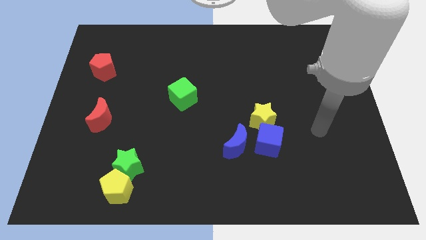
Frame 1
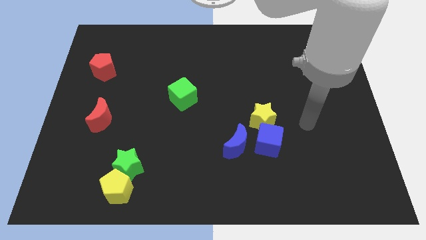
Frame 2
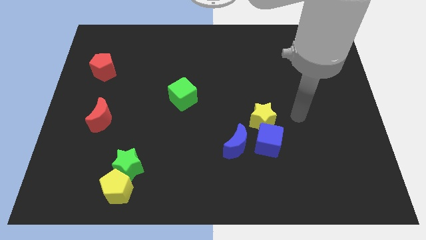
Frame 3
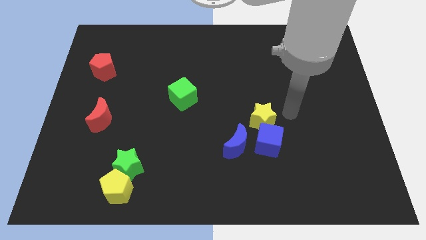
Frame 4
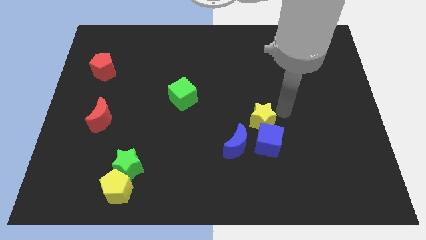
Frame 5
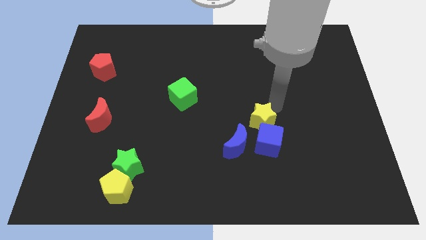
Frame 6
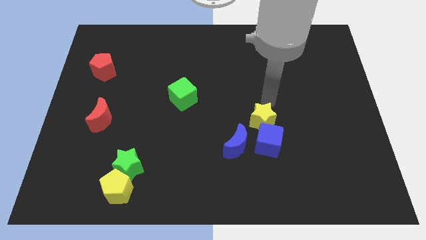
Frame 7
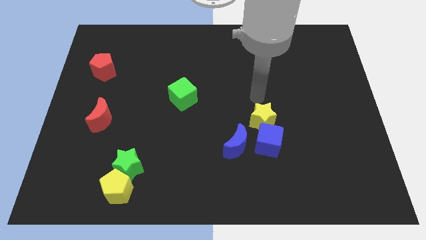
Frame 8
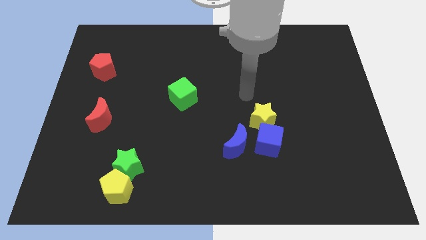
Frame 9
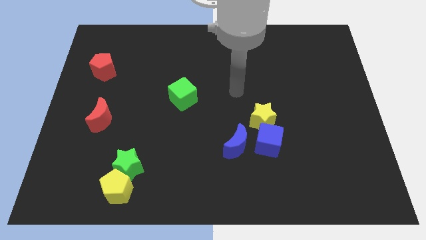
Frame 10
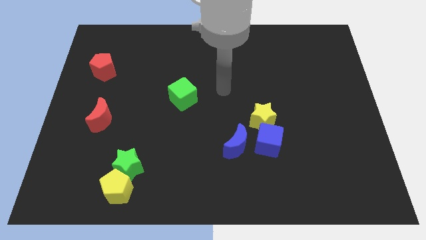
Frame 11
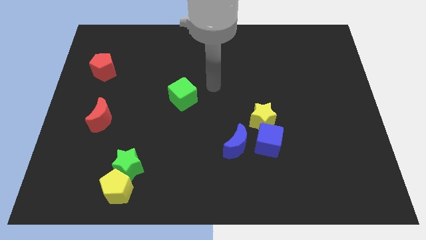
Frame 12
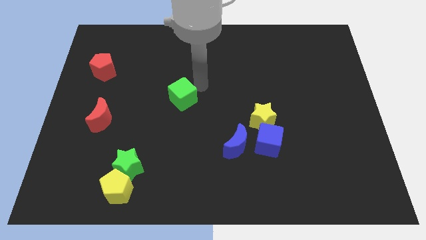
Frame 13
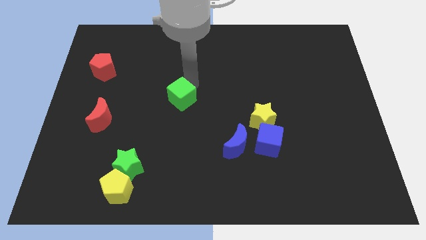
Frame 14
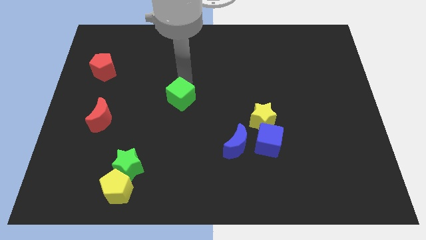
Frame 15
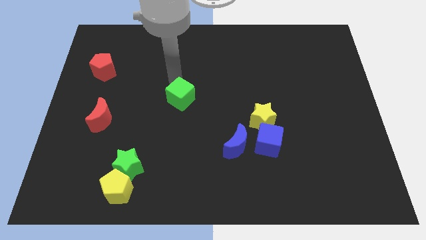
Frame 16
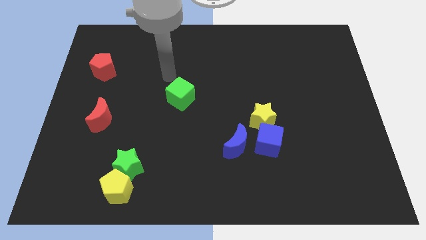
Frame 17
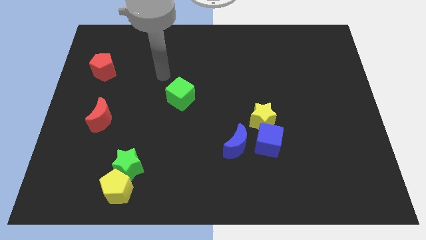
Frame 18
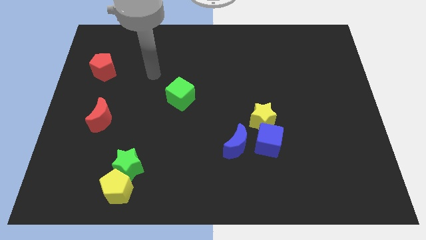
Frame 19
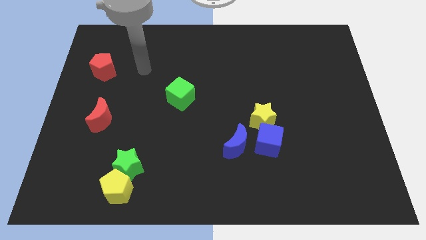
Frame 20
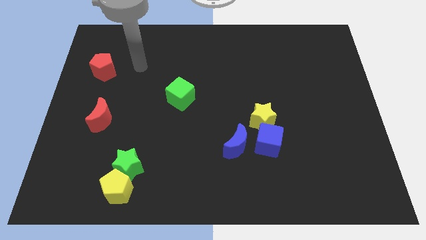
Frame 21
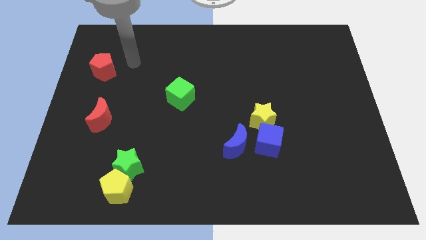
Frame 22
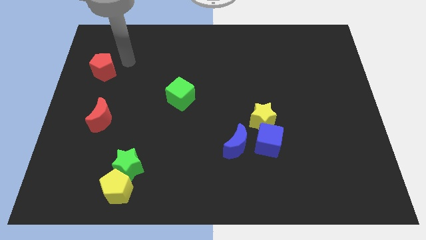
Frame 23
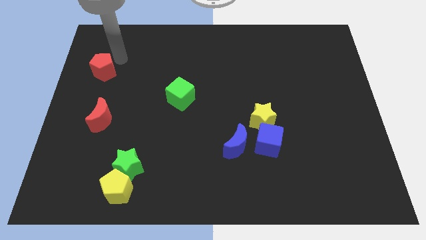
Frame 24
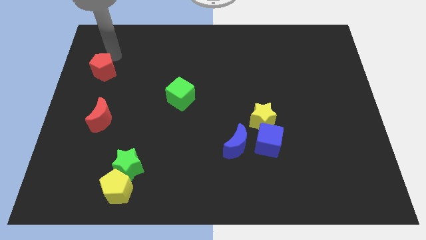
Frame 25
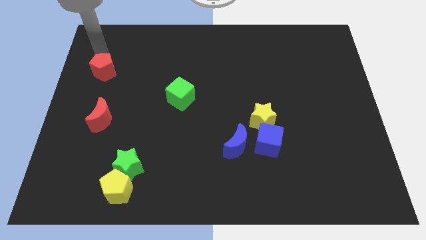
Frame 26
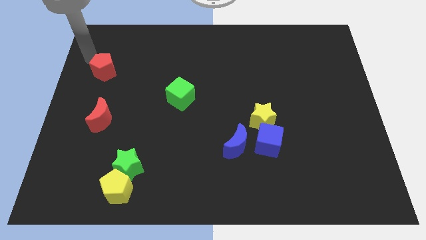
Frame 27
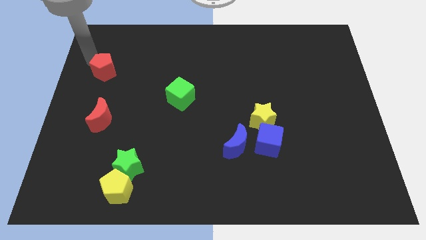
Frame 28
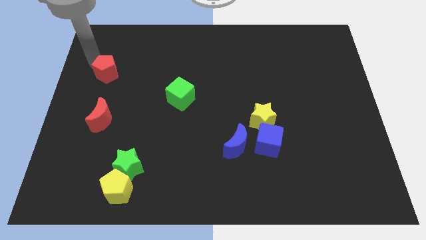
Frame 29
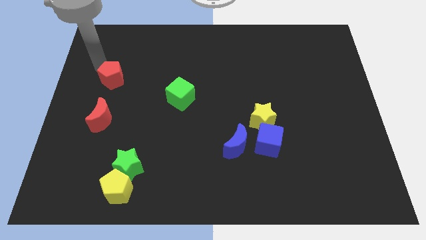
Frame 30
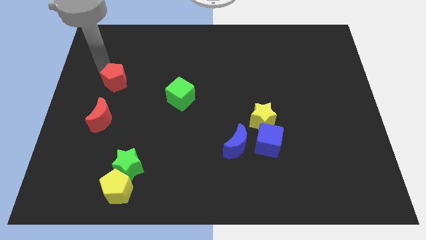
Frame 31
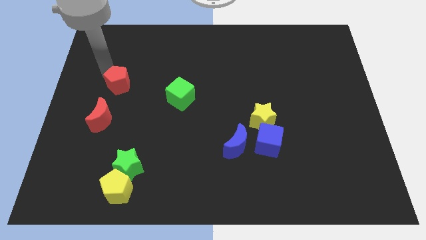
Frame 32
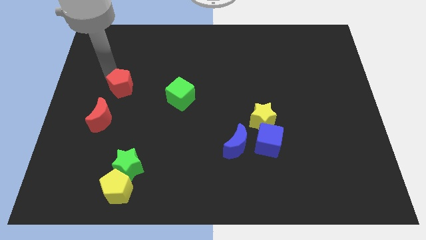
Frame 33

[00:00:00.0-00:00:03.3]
slightly push the red pentagon down and to the right diagonally

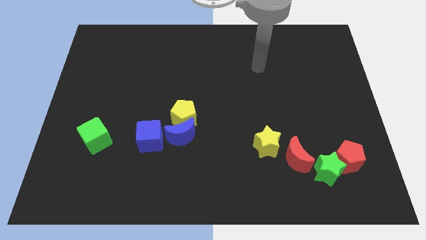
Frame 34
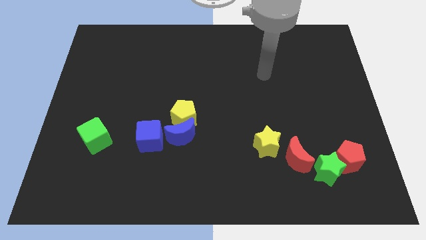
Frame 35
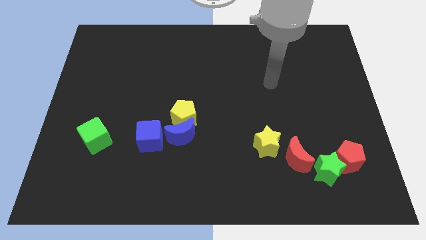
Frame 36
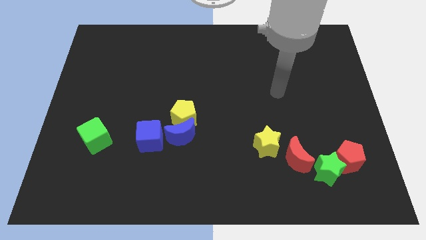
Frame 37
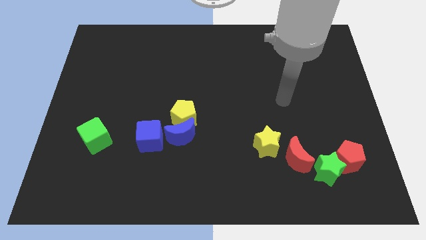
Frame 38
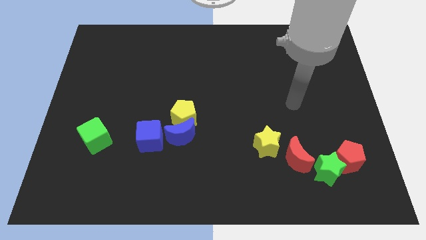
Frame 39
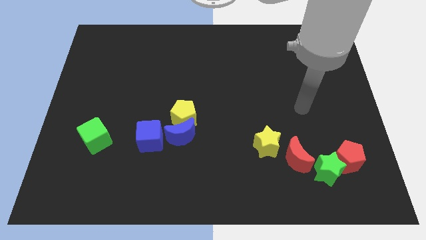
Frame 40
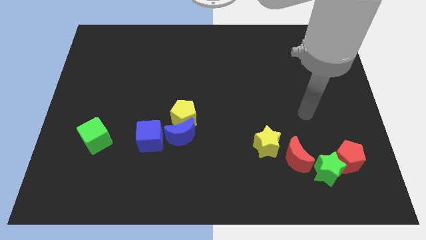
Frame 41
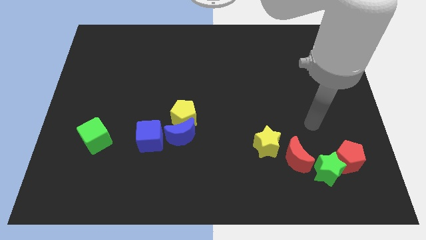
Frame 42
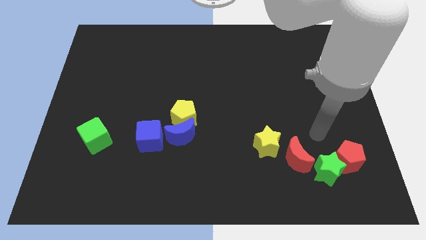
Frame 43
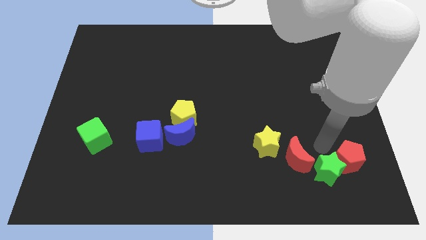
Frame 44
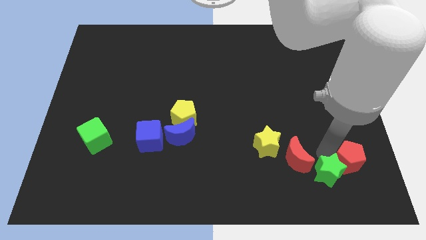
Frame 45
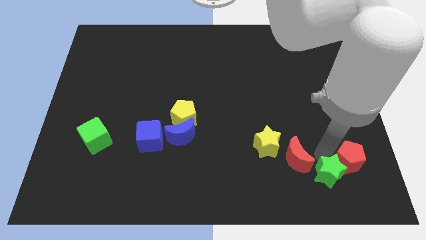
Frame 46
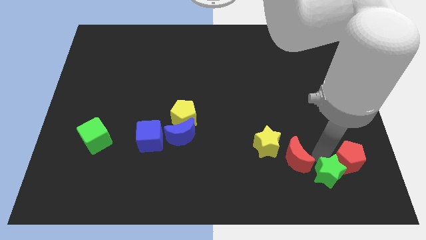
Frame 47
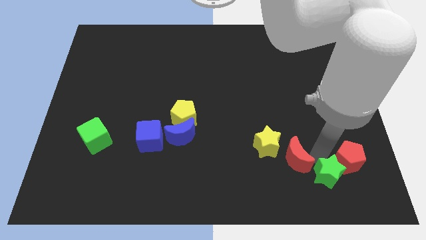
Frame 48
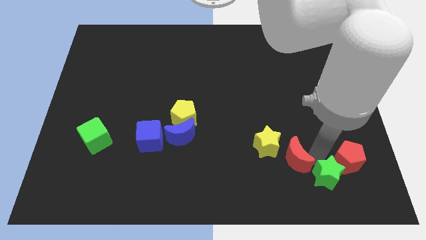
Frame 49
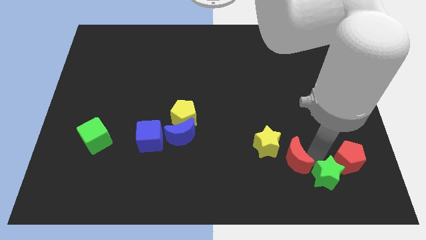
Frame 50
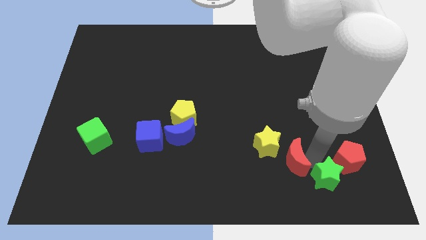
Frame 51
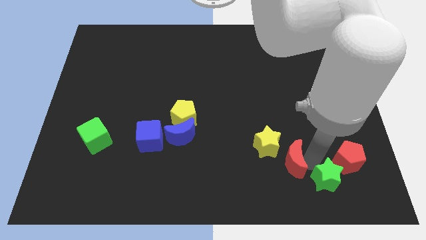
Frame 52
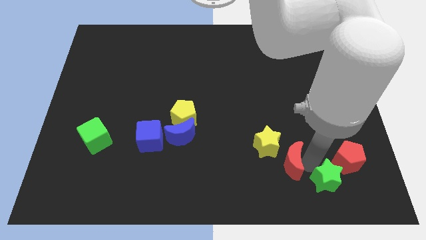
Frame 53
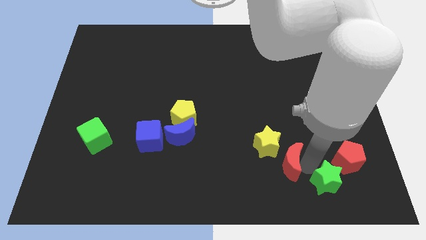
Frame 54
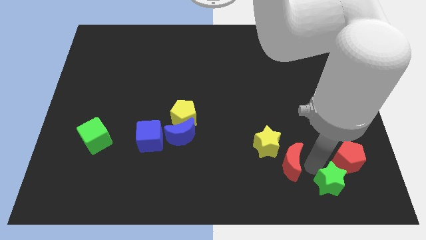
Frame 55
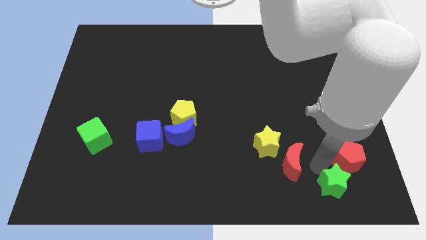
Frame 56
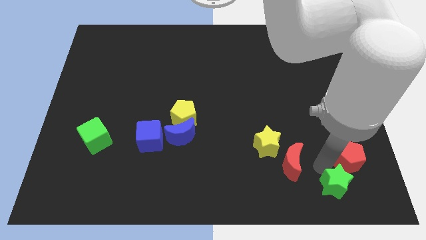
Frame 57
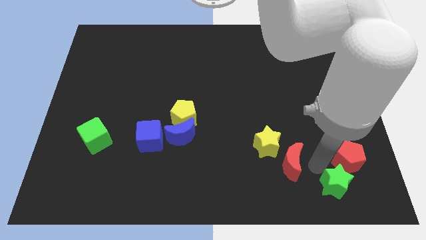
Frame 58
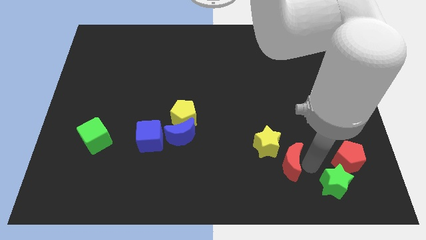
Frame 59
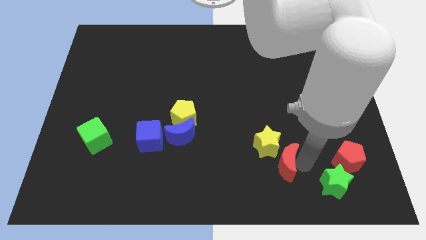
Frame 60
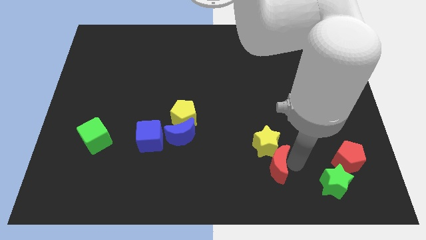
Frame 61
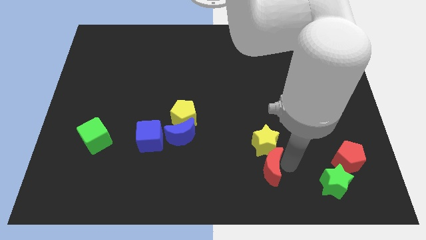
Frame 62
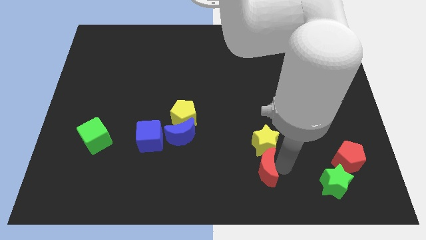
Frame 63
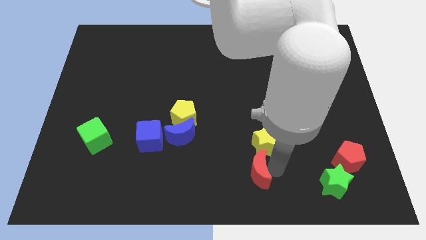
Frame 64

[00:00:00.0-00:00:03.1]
slightly slide the red moon to the left

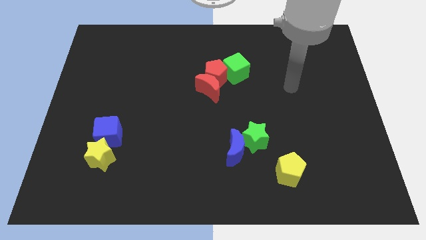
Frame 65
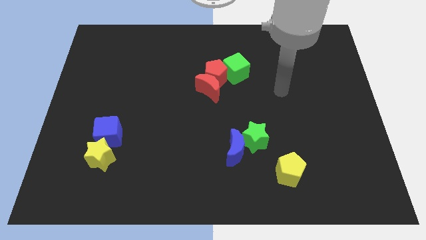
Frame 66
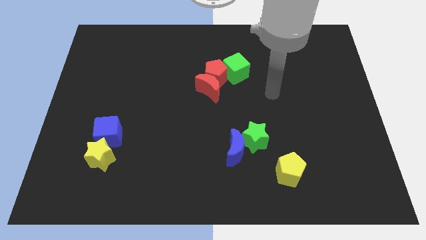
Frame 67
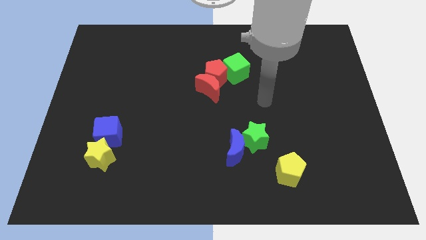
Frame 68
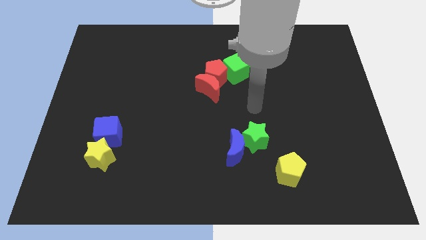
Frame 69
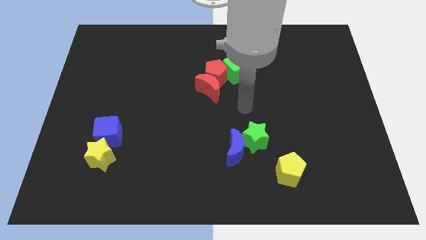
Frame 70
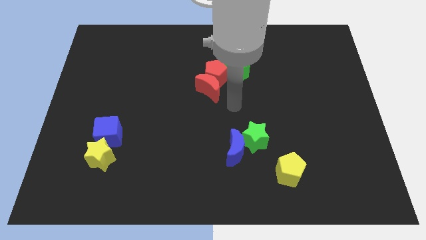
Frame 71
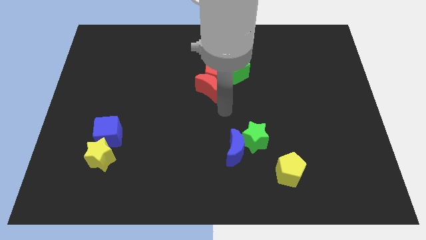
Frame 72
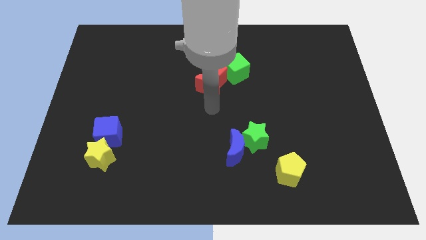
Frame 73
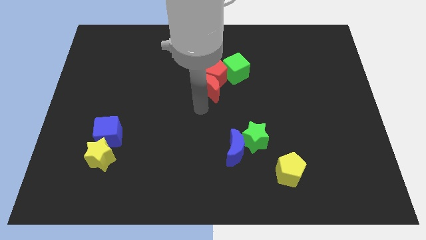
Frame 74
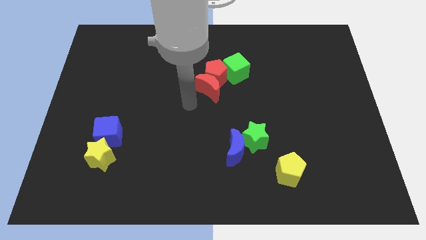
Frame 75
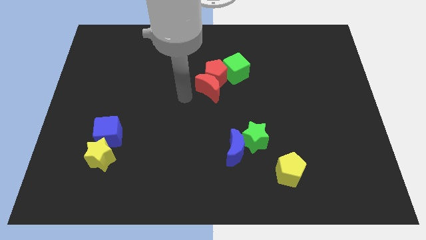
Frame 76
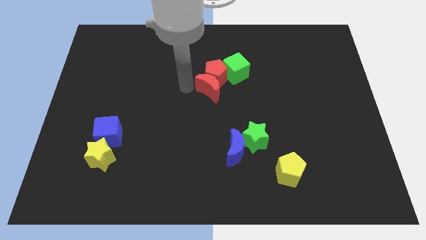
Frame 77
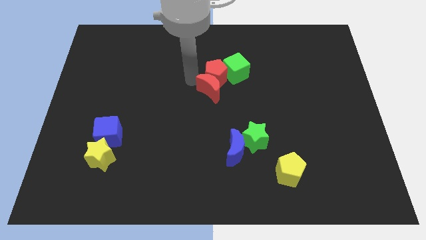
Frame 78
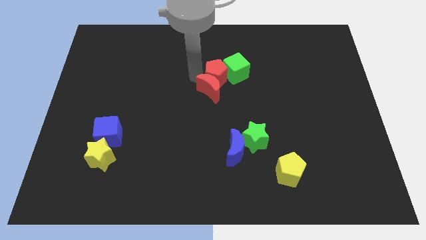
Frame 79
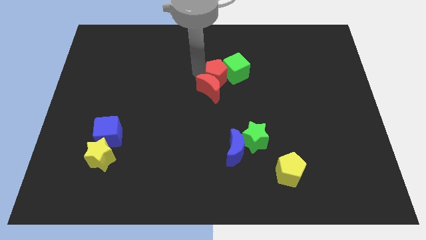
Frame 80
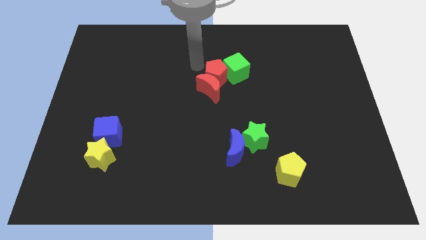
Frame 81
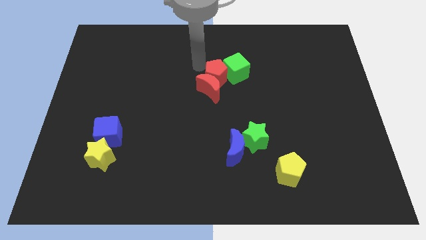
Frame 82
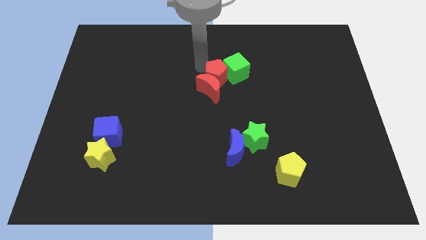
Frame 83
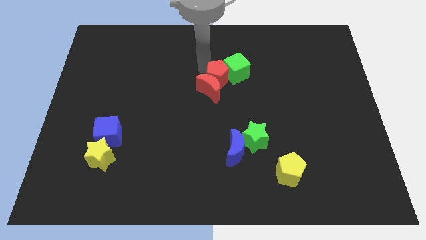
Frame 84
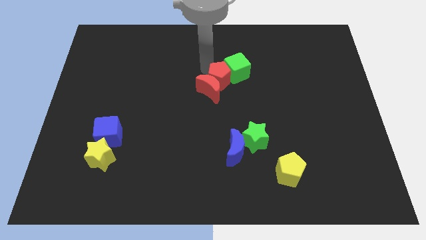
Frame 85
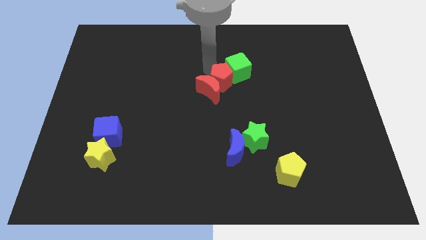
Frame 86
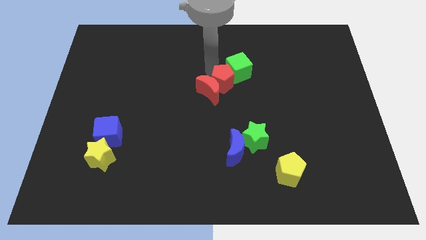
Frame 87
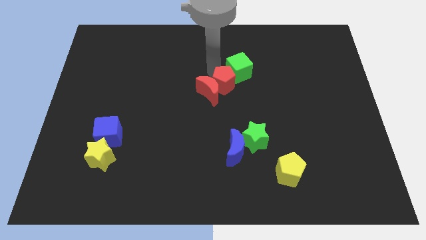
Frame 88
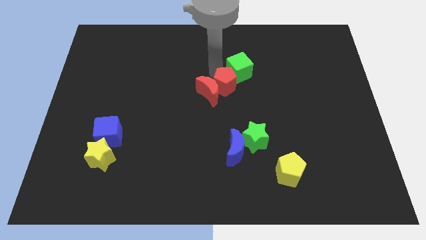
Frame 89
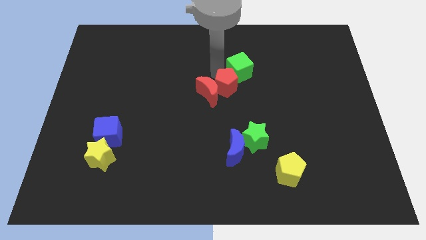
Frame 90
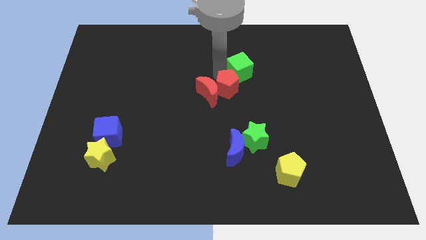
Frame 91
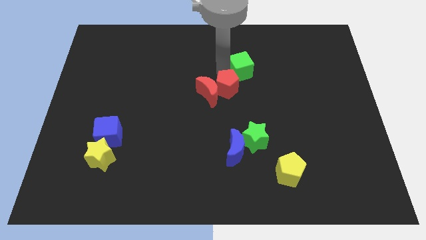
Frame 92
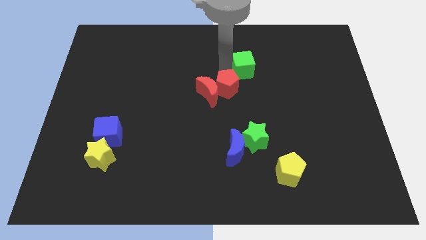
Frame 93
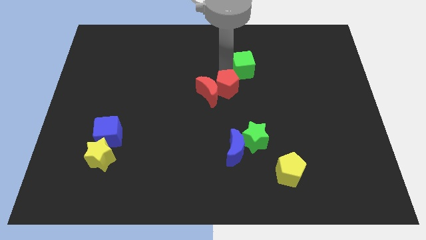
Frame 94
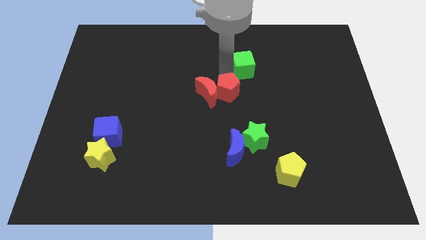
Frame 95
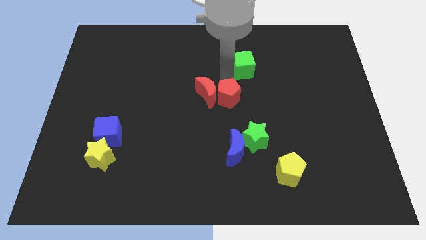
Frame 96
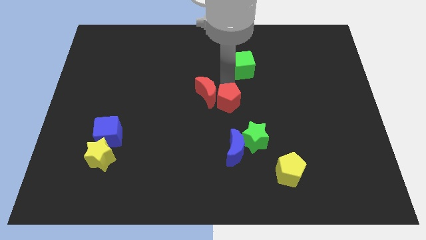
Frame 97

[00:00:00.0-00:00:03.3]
move the red pentagon downwards a bit
